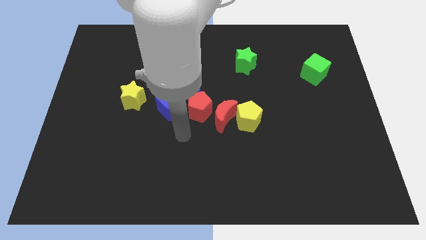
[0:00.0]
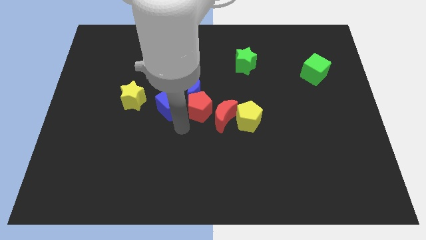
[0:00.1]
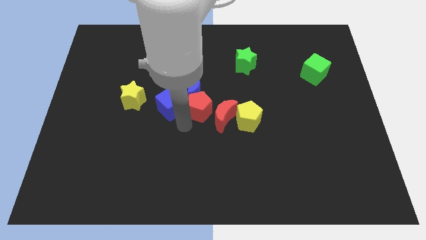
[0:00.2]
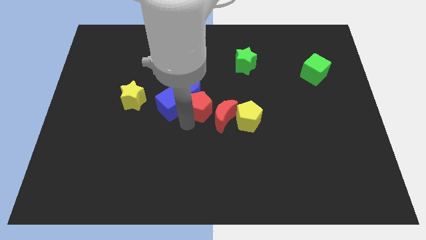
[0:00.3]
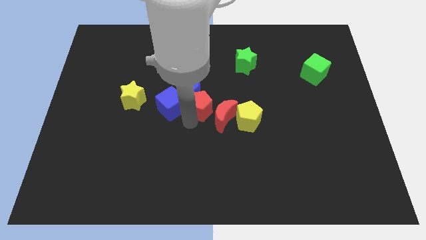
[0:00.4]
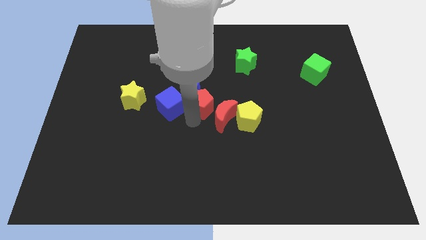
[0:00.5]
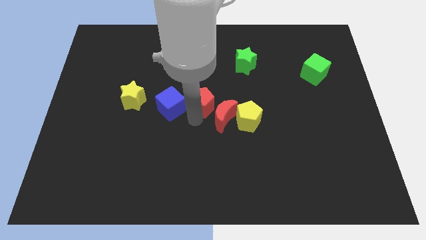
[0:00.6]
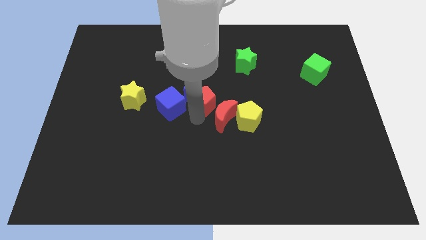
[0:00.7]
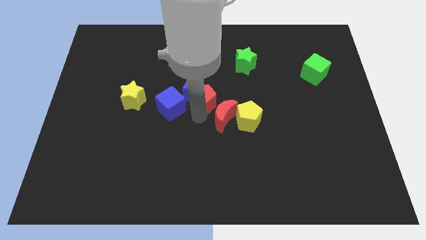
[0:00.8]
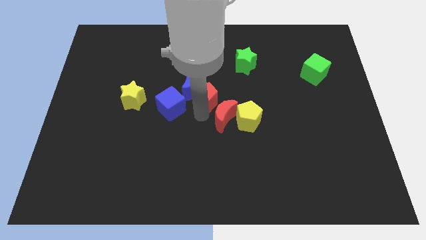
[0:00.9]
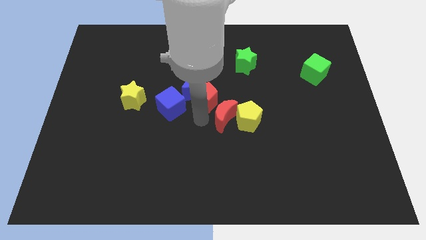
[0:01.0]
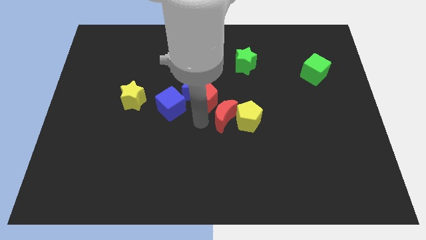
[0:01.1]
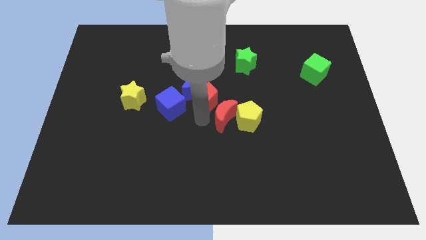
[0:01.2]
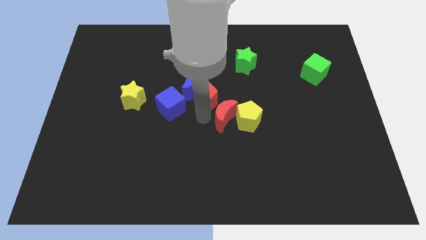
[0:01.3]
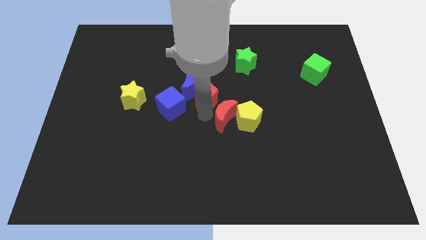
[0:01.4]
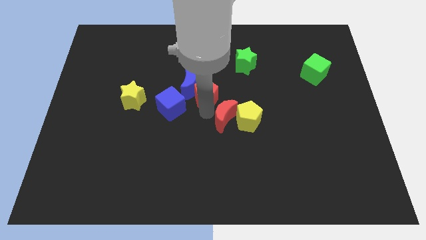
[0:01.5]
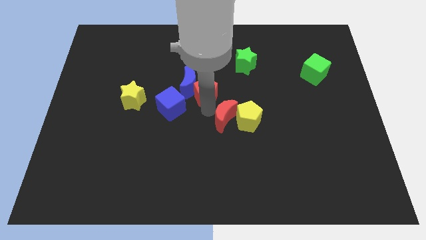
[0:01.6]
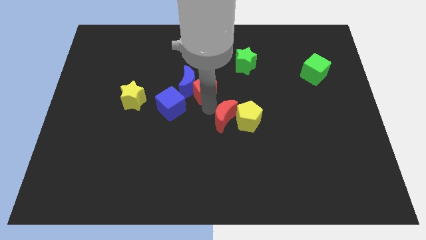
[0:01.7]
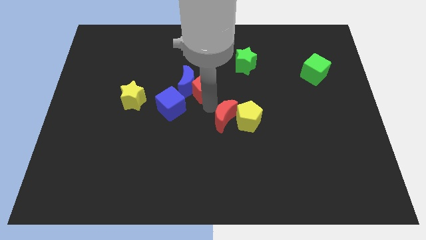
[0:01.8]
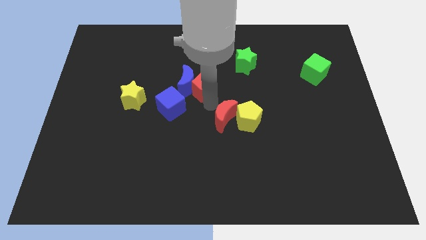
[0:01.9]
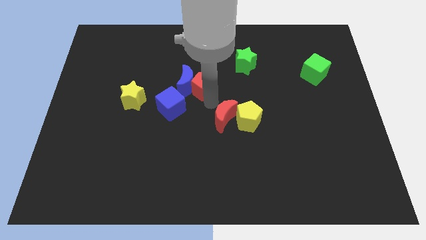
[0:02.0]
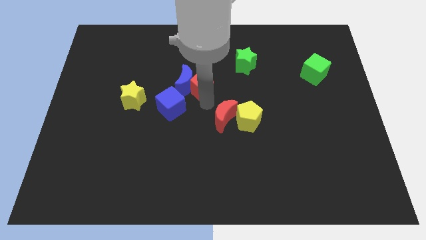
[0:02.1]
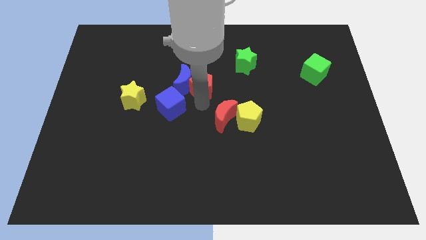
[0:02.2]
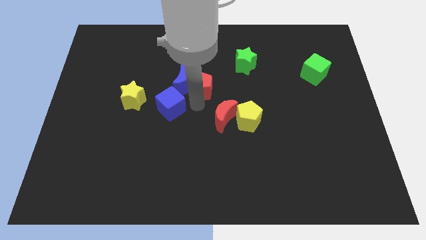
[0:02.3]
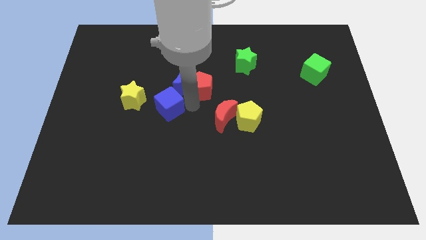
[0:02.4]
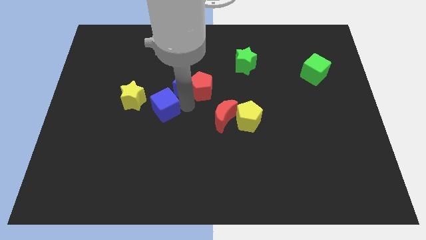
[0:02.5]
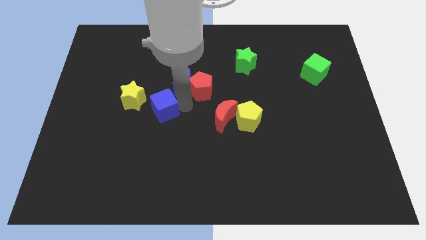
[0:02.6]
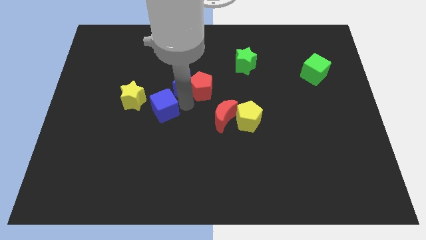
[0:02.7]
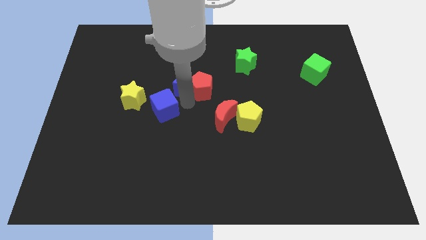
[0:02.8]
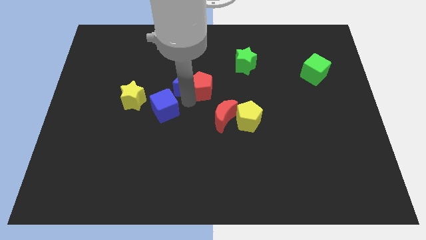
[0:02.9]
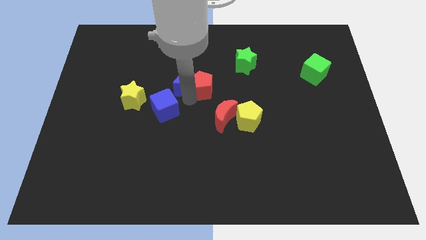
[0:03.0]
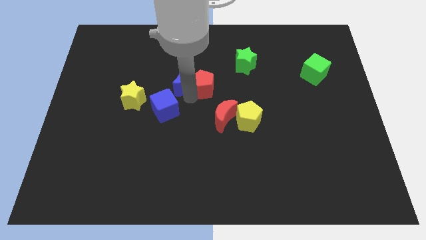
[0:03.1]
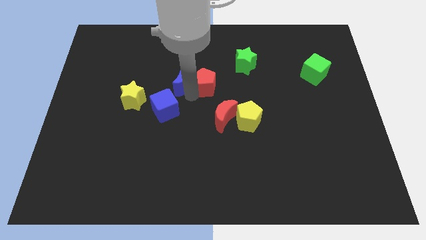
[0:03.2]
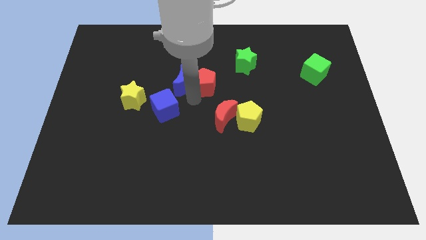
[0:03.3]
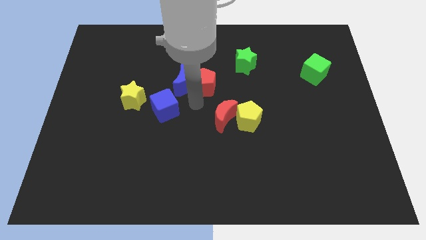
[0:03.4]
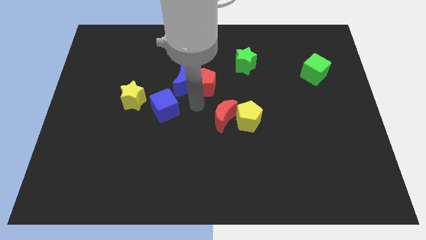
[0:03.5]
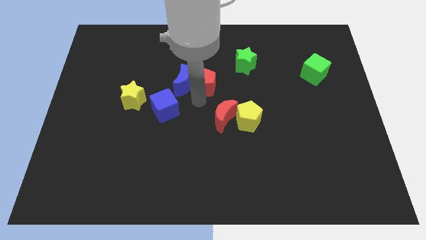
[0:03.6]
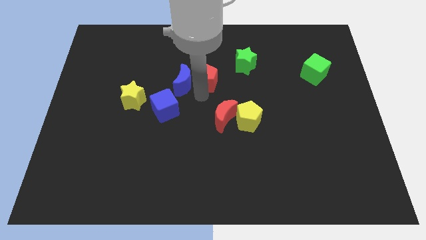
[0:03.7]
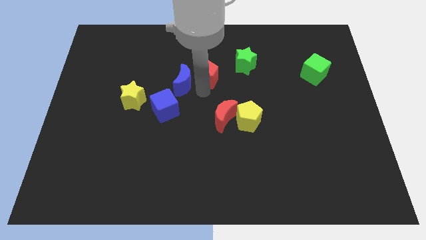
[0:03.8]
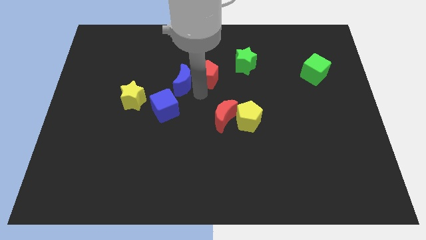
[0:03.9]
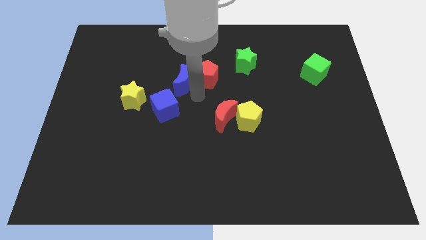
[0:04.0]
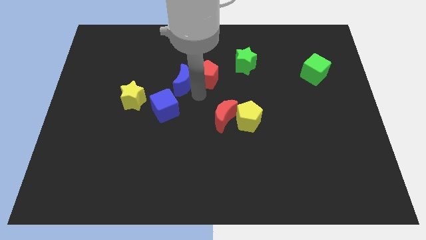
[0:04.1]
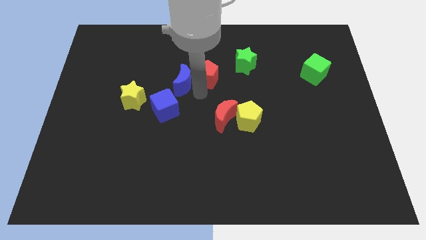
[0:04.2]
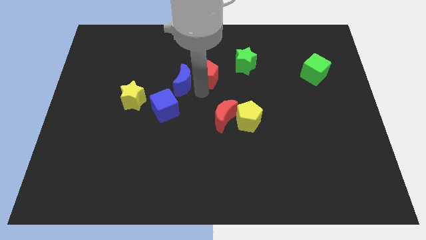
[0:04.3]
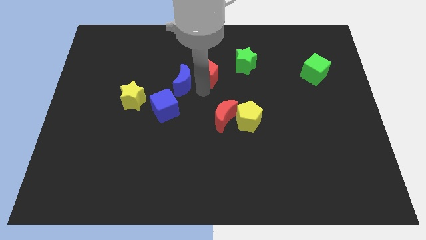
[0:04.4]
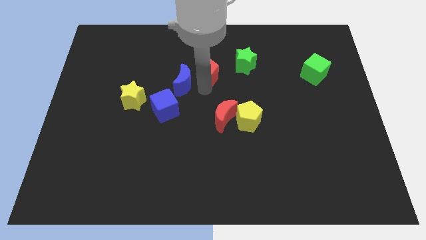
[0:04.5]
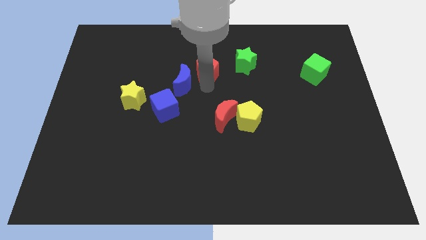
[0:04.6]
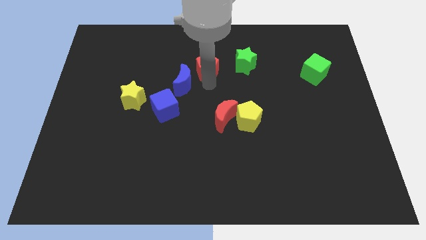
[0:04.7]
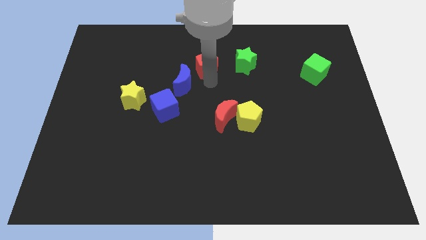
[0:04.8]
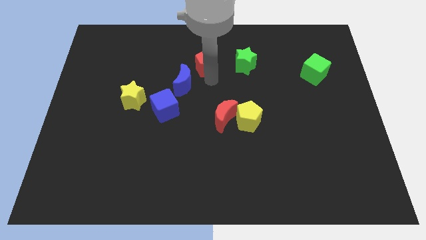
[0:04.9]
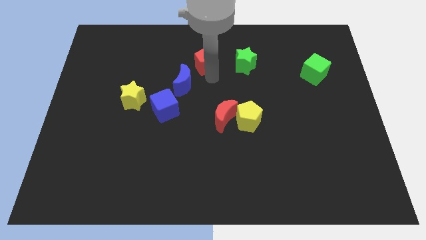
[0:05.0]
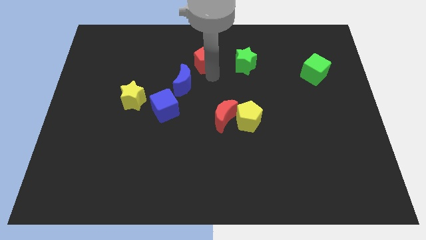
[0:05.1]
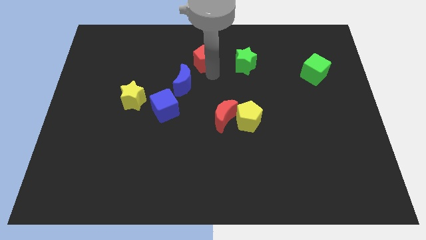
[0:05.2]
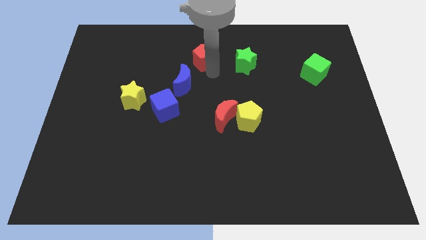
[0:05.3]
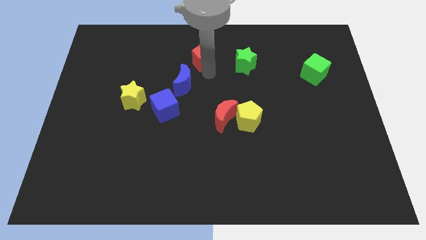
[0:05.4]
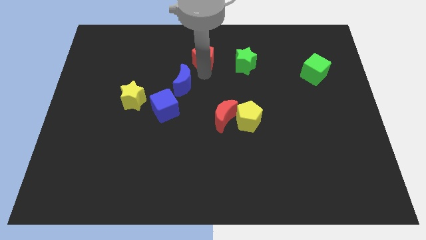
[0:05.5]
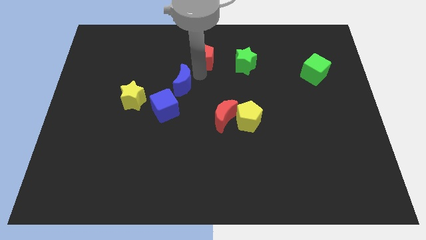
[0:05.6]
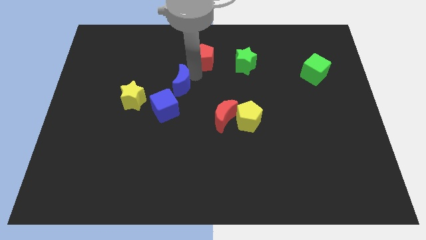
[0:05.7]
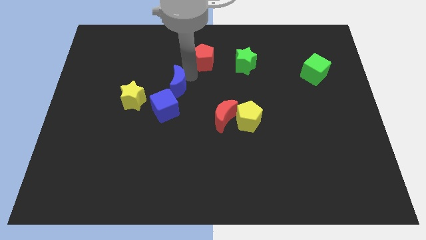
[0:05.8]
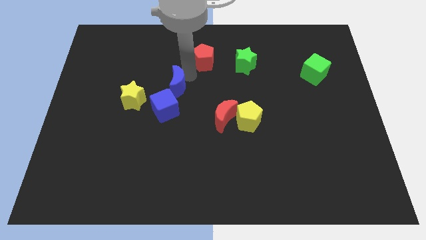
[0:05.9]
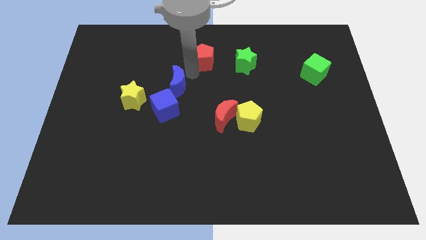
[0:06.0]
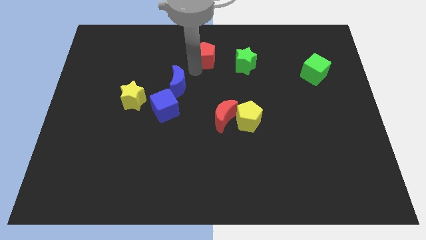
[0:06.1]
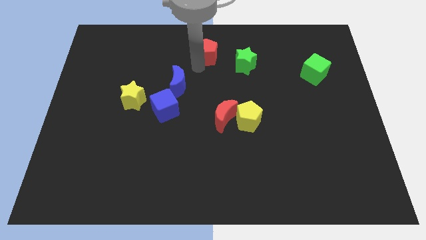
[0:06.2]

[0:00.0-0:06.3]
slide the red pentagon to the top side
